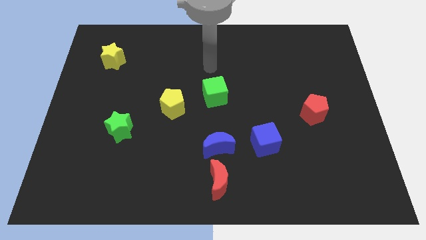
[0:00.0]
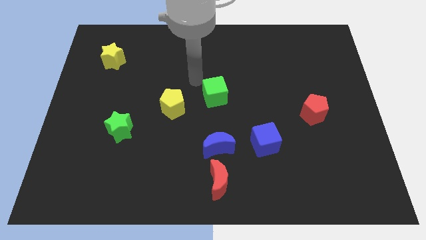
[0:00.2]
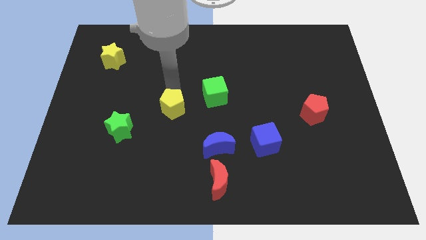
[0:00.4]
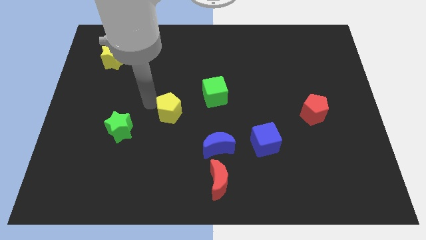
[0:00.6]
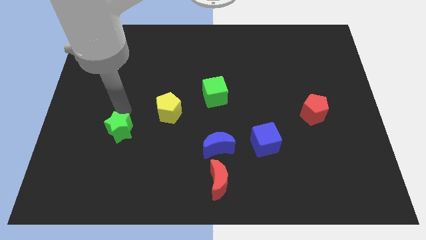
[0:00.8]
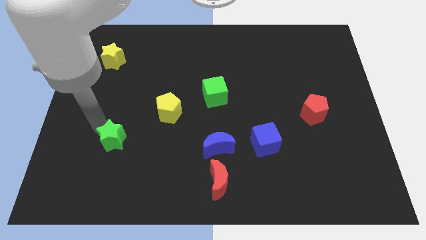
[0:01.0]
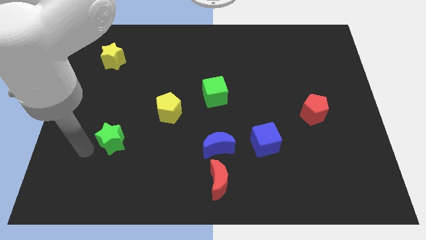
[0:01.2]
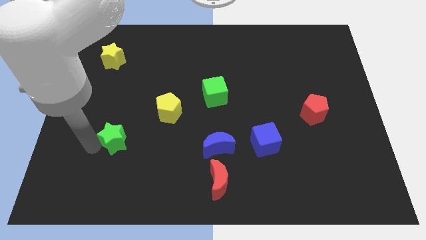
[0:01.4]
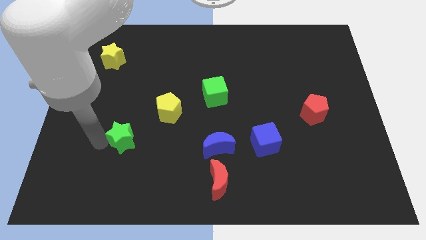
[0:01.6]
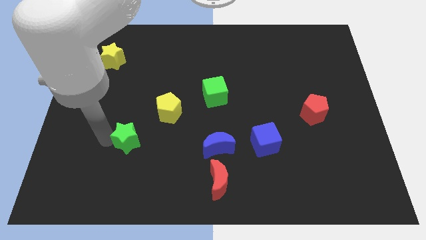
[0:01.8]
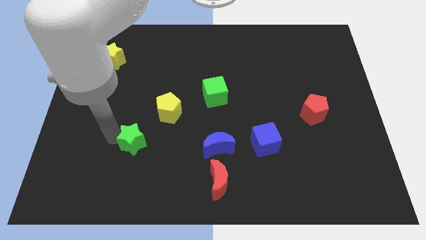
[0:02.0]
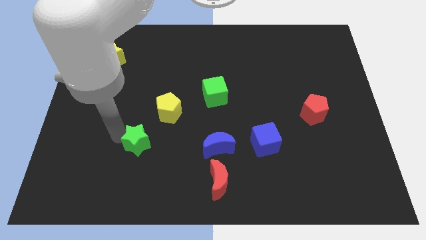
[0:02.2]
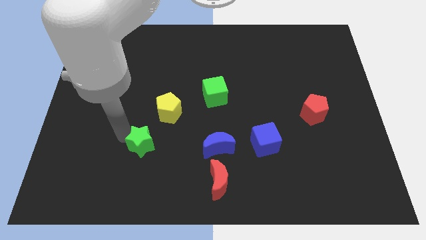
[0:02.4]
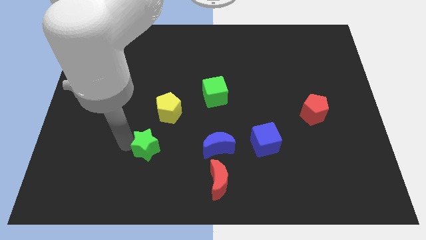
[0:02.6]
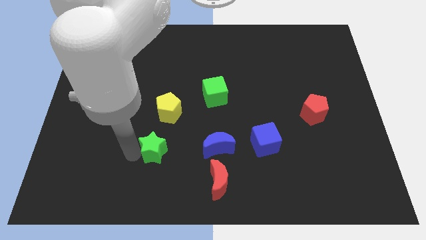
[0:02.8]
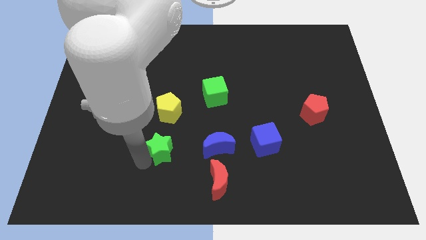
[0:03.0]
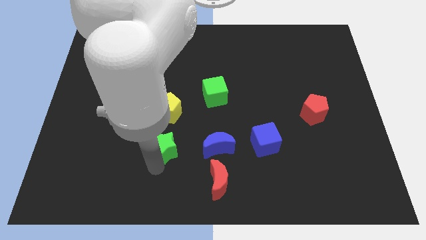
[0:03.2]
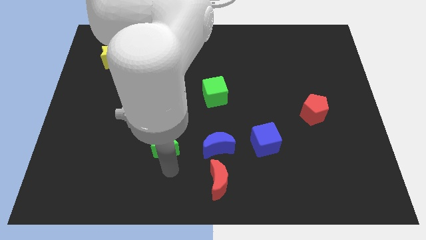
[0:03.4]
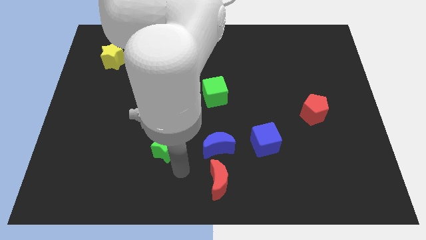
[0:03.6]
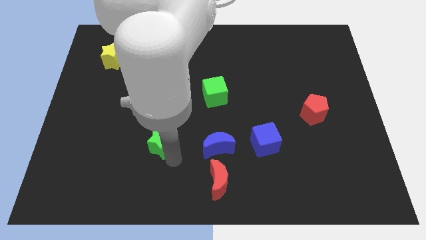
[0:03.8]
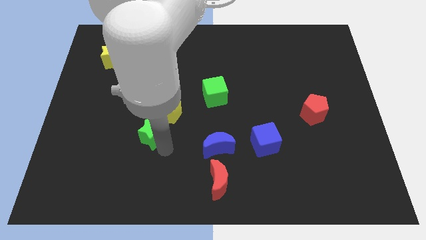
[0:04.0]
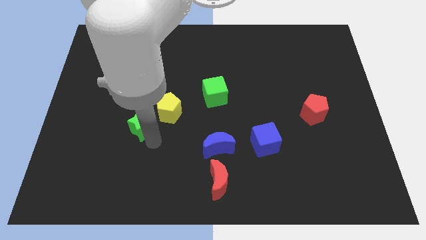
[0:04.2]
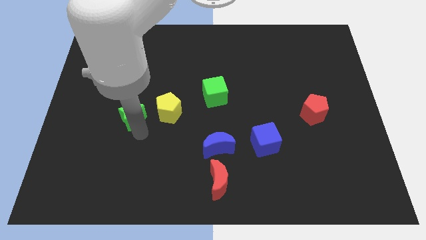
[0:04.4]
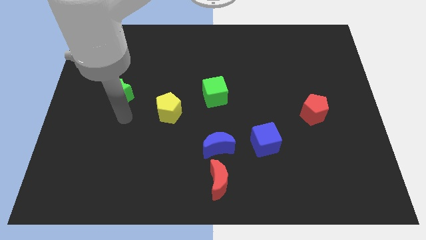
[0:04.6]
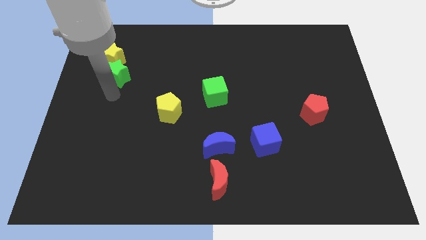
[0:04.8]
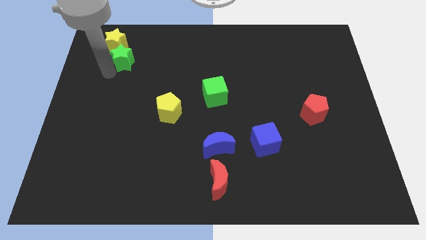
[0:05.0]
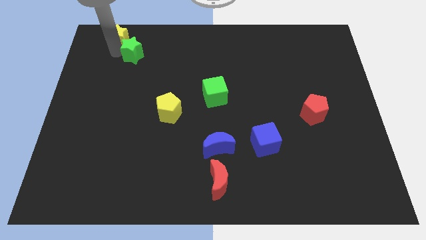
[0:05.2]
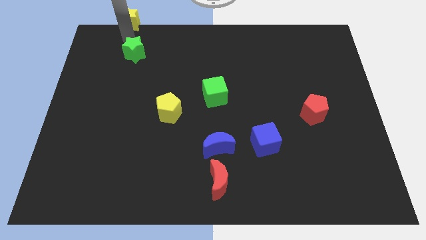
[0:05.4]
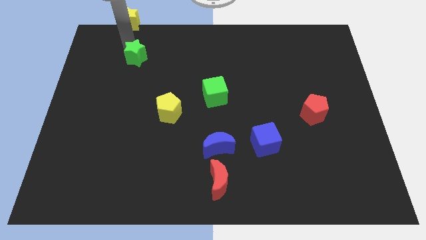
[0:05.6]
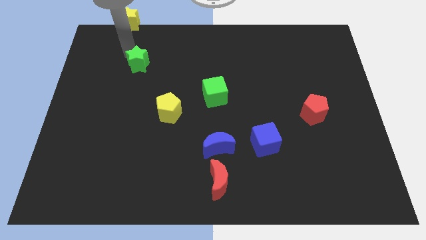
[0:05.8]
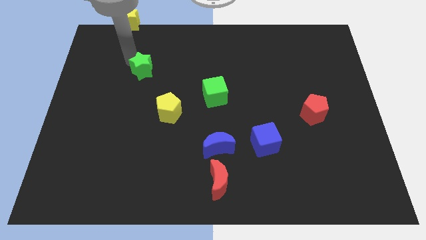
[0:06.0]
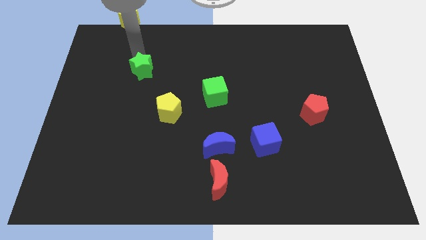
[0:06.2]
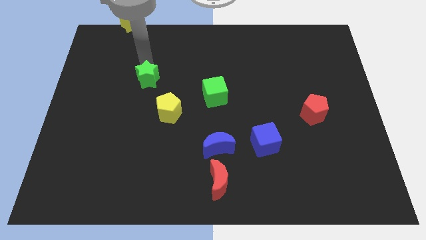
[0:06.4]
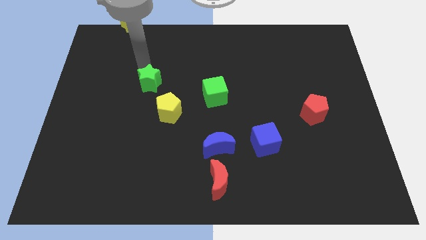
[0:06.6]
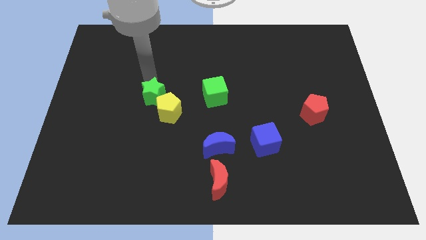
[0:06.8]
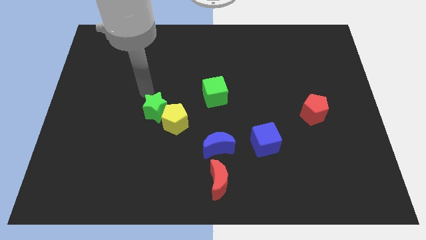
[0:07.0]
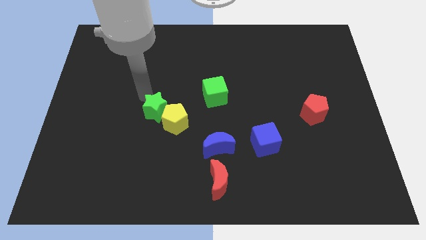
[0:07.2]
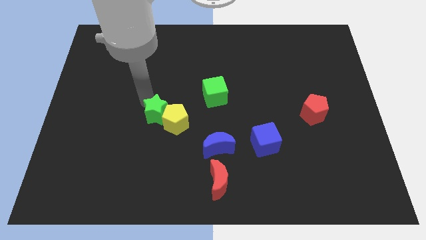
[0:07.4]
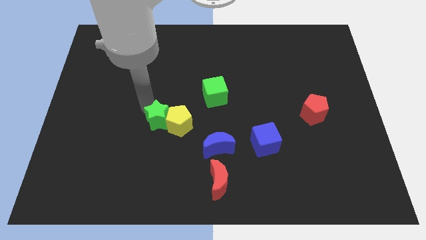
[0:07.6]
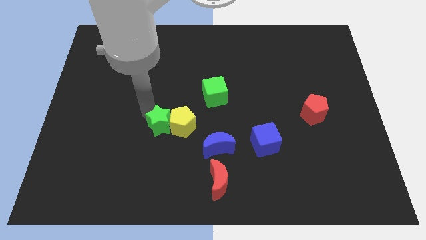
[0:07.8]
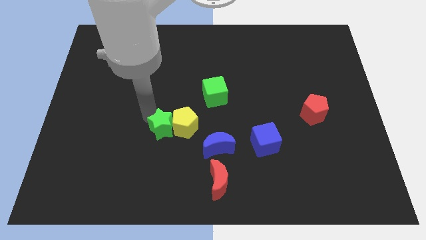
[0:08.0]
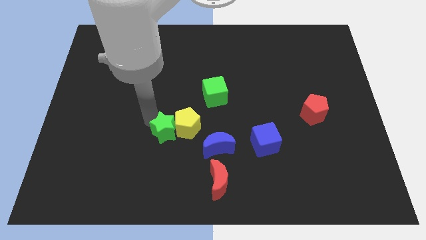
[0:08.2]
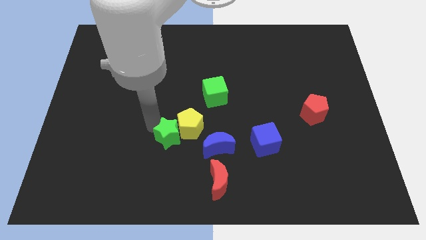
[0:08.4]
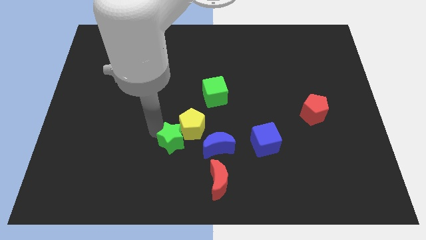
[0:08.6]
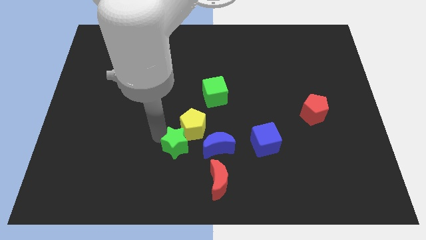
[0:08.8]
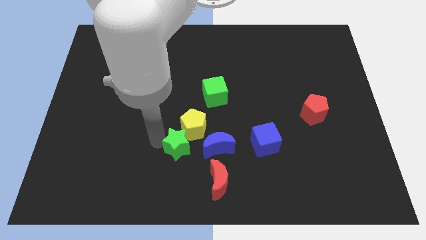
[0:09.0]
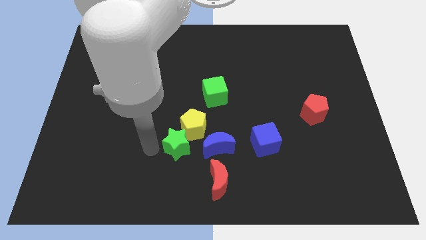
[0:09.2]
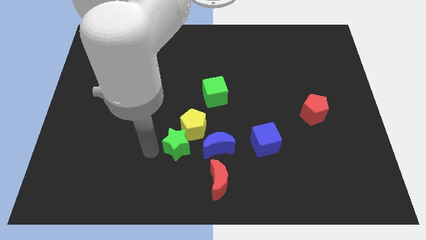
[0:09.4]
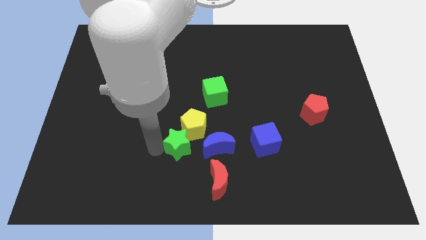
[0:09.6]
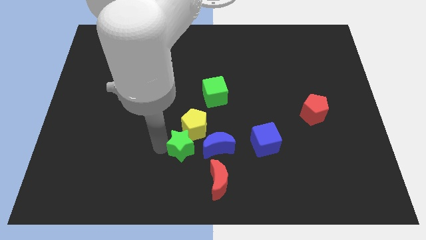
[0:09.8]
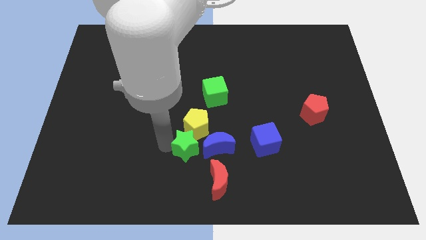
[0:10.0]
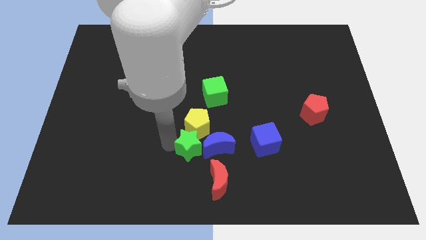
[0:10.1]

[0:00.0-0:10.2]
move the green star to the left side of the blue cube

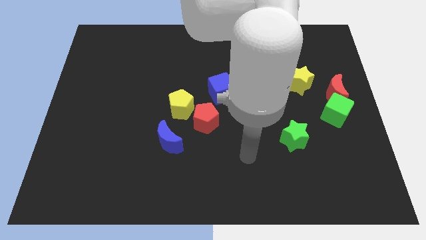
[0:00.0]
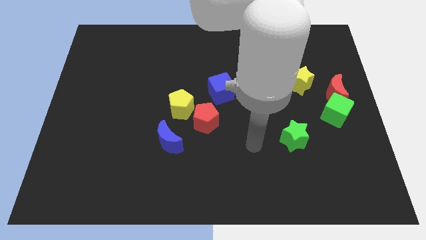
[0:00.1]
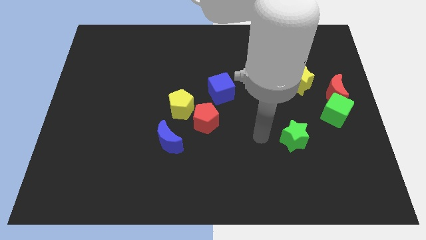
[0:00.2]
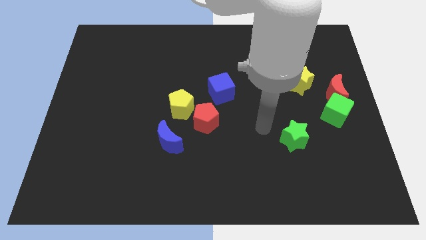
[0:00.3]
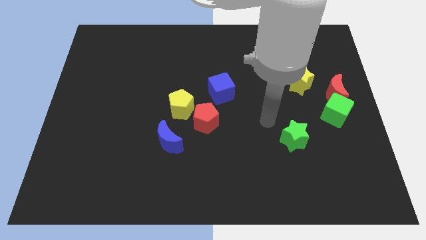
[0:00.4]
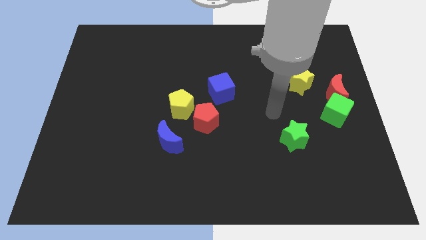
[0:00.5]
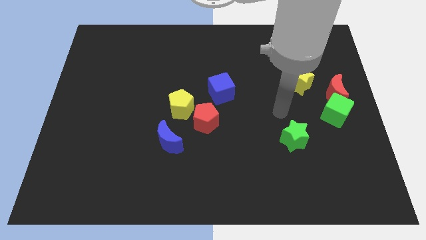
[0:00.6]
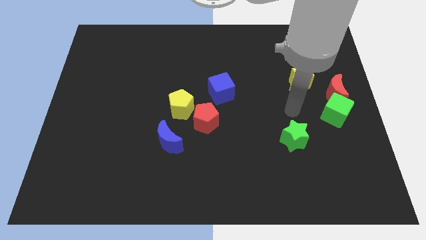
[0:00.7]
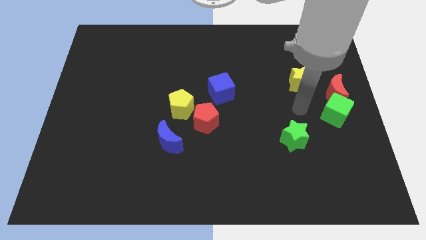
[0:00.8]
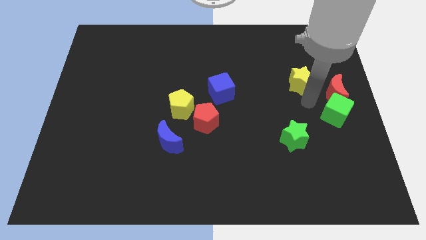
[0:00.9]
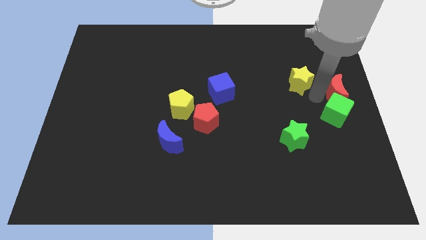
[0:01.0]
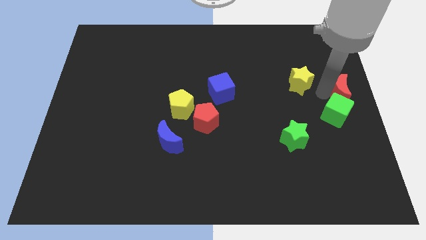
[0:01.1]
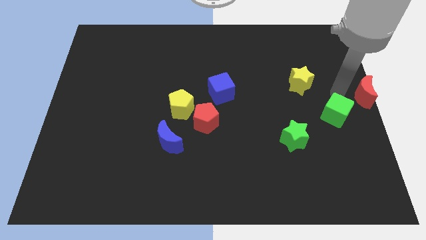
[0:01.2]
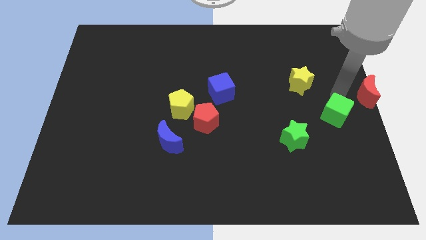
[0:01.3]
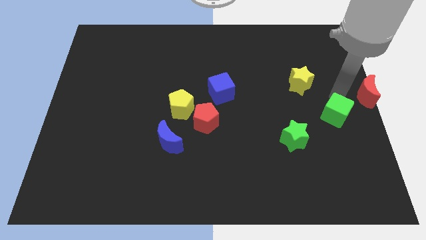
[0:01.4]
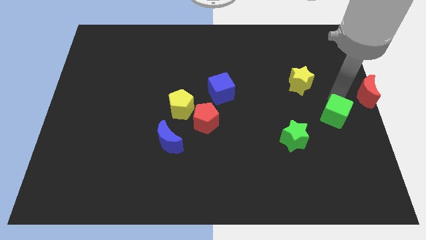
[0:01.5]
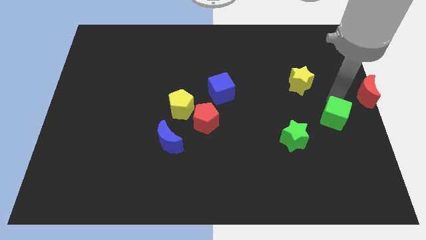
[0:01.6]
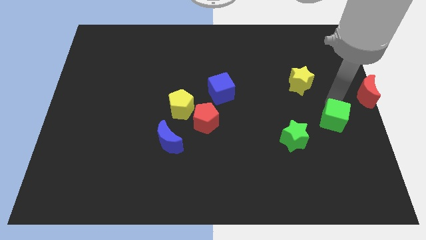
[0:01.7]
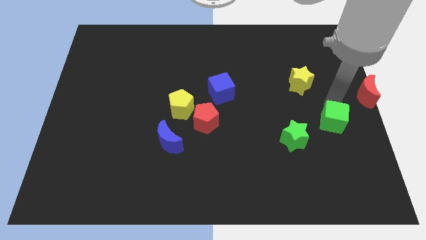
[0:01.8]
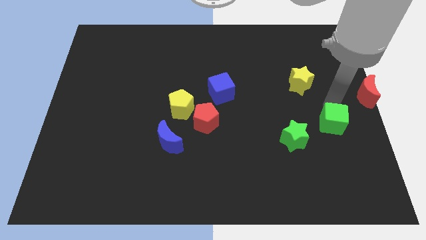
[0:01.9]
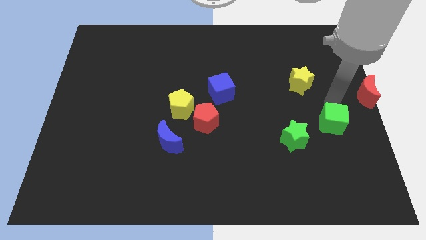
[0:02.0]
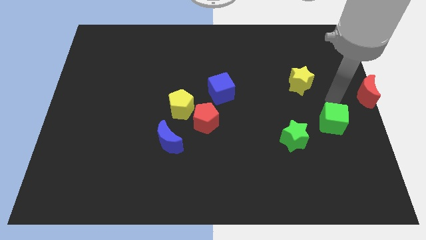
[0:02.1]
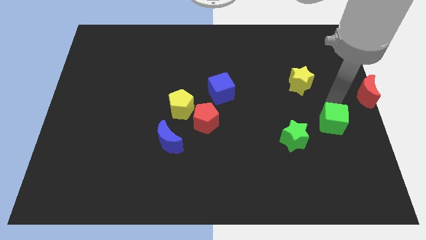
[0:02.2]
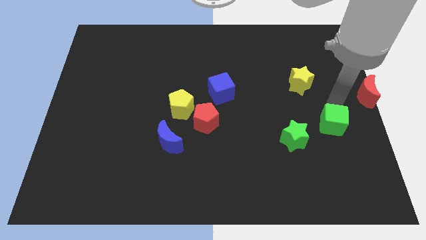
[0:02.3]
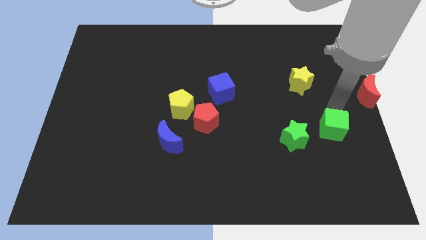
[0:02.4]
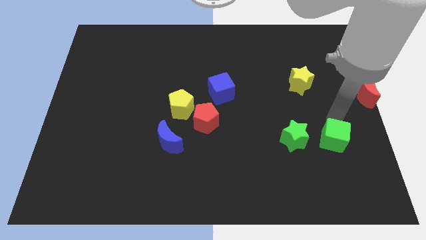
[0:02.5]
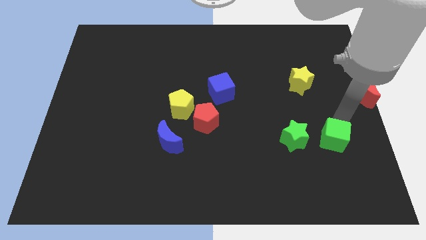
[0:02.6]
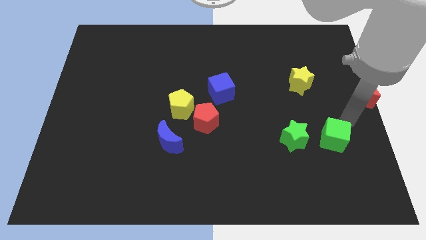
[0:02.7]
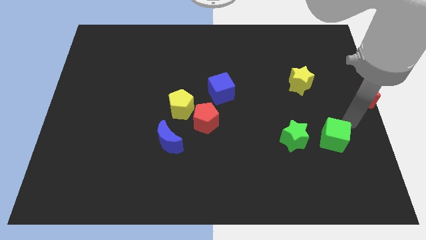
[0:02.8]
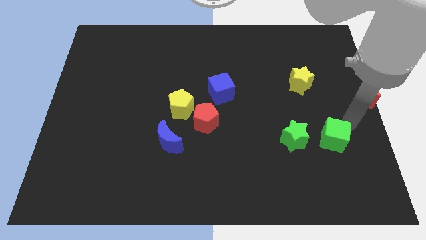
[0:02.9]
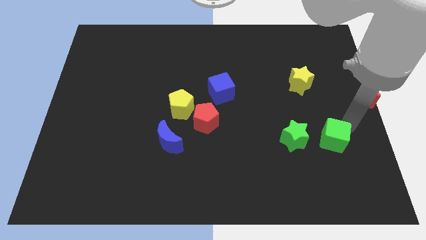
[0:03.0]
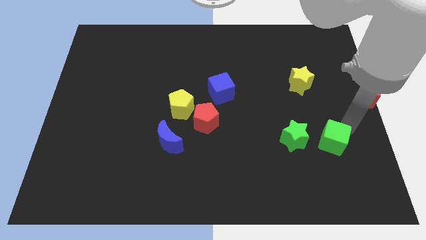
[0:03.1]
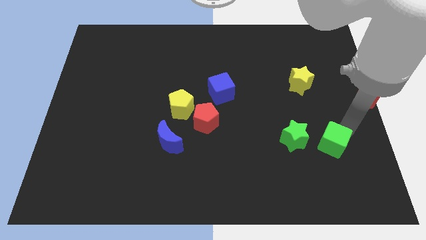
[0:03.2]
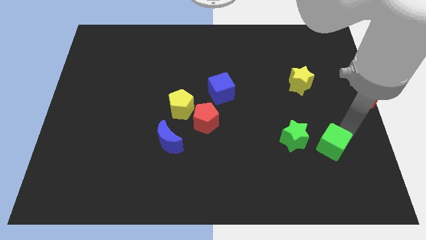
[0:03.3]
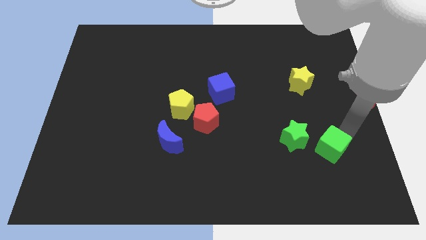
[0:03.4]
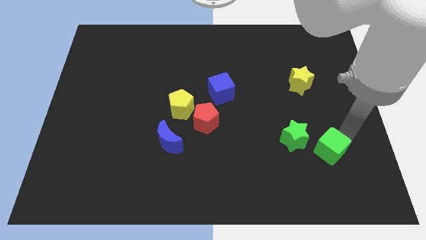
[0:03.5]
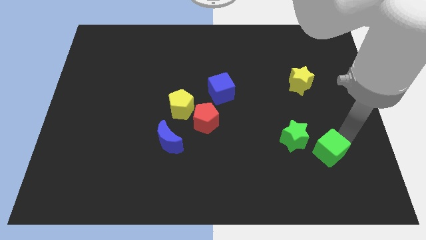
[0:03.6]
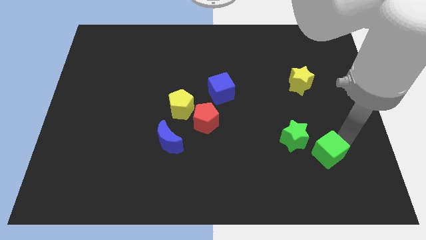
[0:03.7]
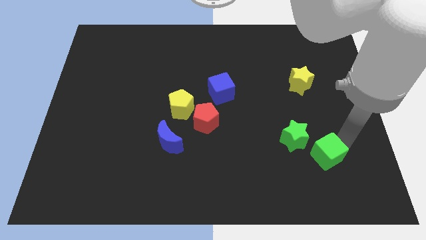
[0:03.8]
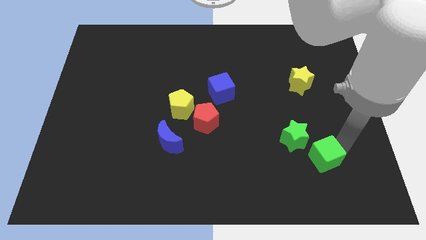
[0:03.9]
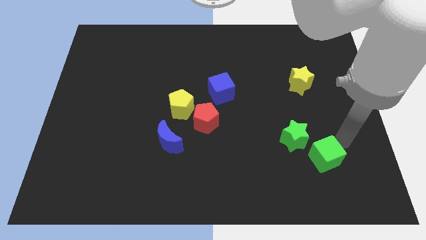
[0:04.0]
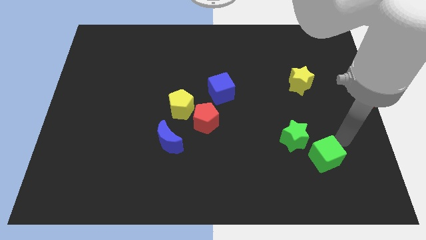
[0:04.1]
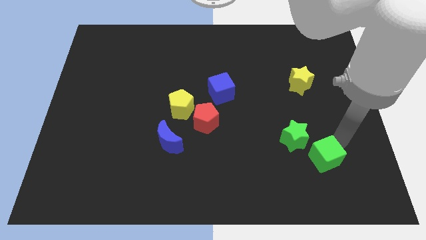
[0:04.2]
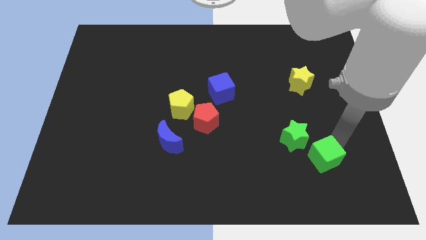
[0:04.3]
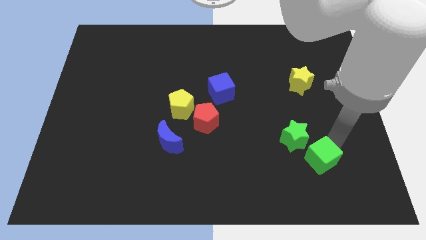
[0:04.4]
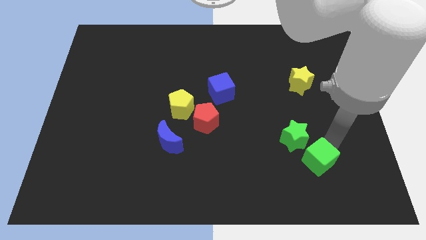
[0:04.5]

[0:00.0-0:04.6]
move the green cube to the bottom of the green star
